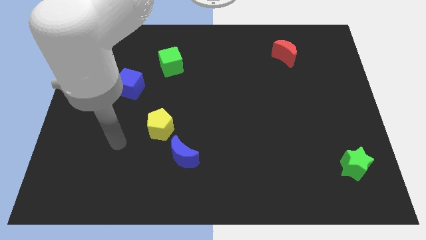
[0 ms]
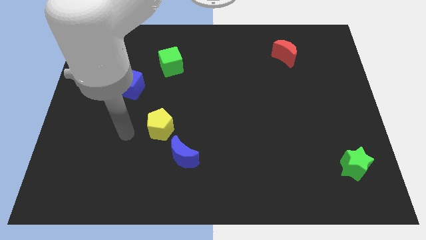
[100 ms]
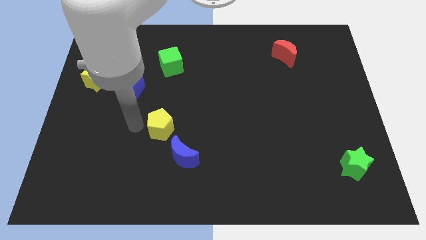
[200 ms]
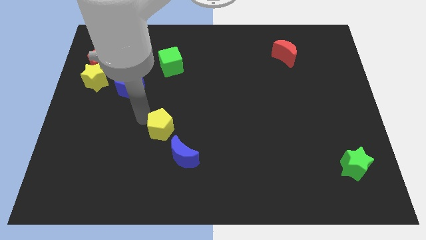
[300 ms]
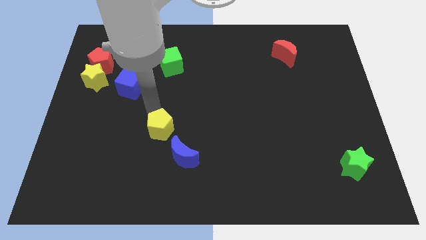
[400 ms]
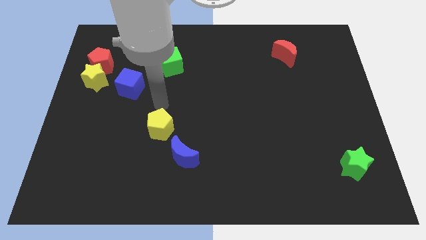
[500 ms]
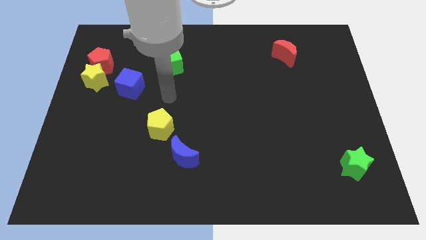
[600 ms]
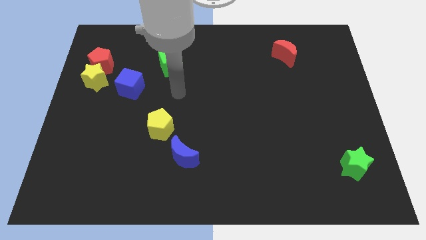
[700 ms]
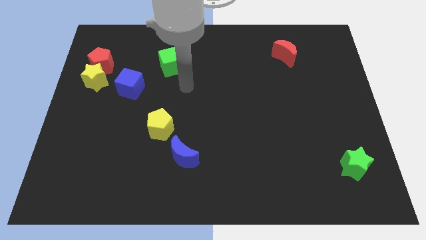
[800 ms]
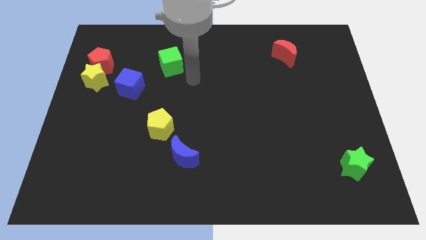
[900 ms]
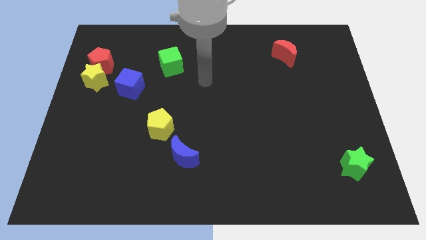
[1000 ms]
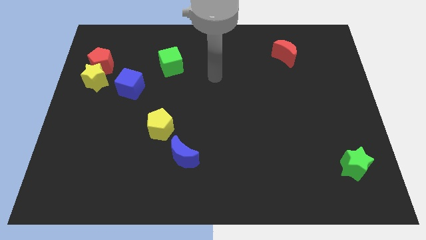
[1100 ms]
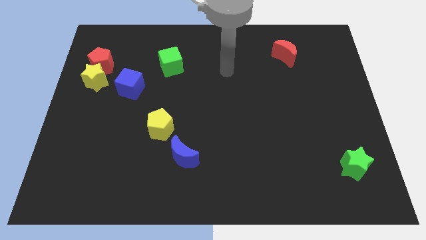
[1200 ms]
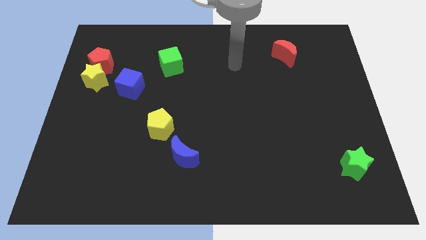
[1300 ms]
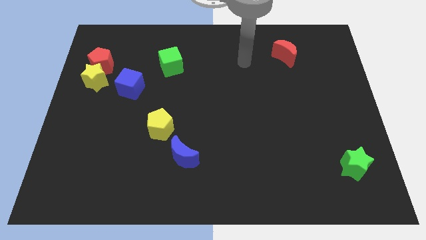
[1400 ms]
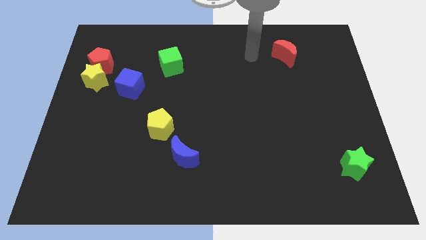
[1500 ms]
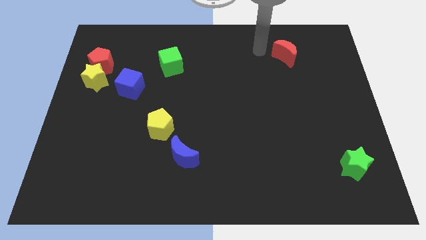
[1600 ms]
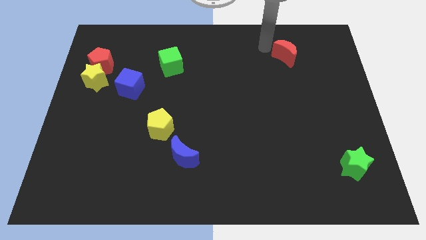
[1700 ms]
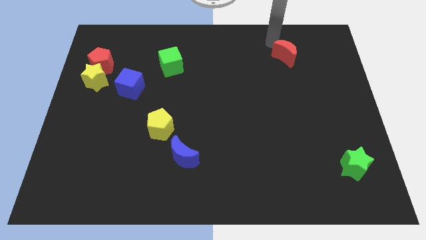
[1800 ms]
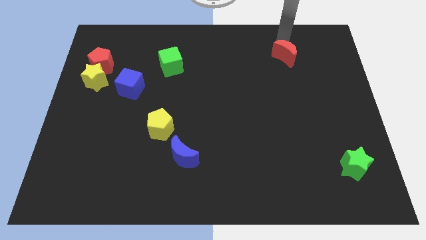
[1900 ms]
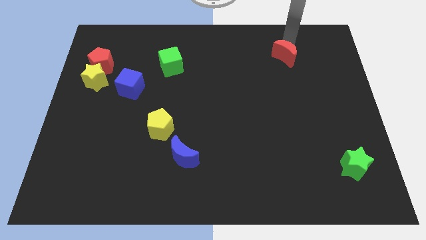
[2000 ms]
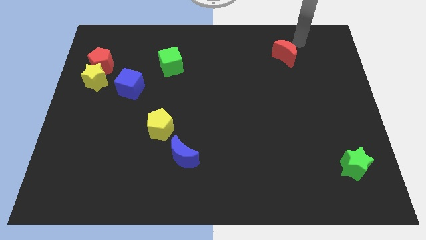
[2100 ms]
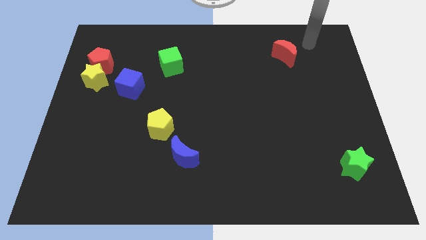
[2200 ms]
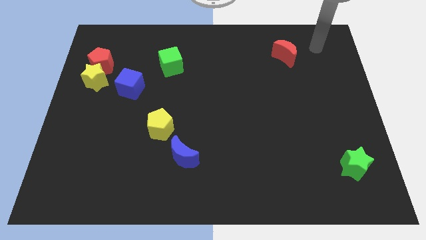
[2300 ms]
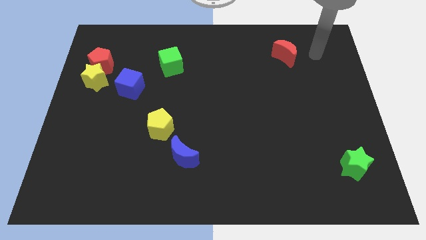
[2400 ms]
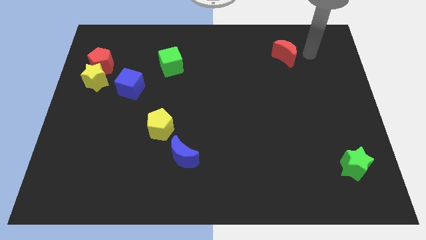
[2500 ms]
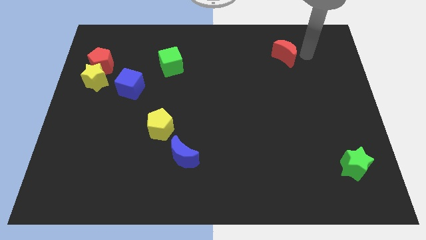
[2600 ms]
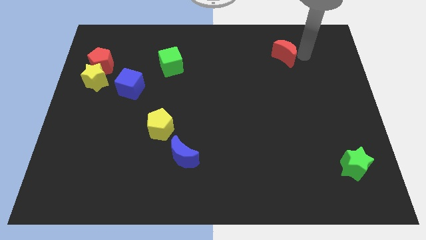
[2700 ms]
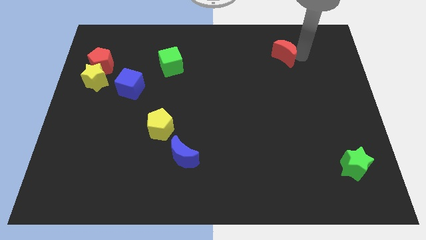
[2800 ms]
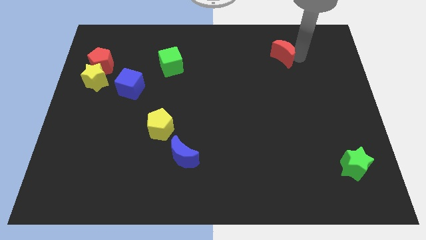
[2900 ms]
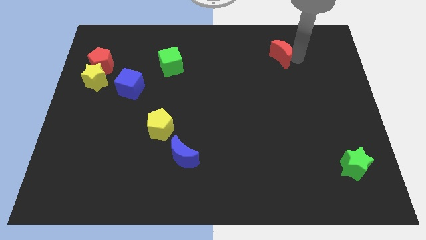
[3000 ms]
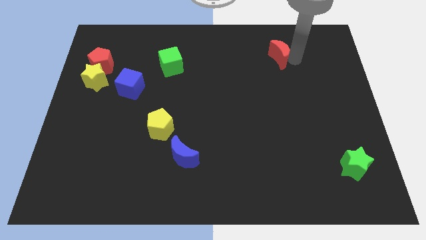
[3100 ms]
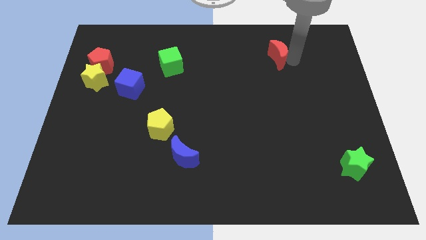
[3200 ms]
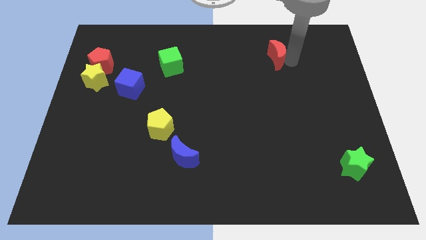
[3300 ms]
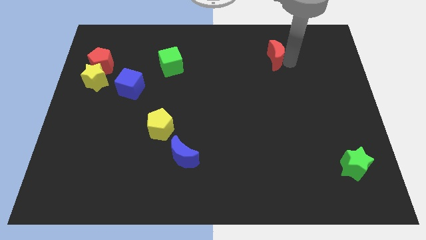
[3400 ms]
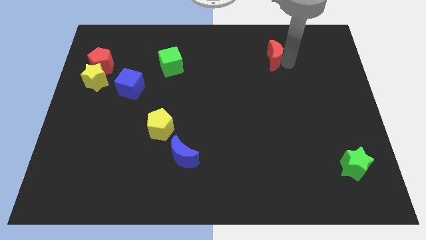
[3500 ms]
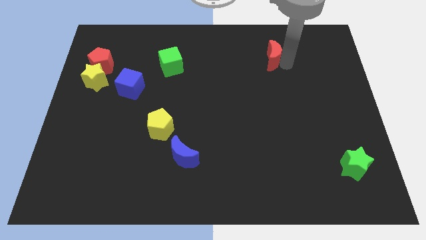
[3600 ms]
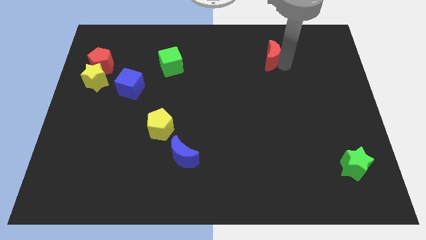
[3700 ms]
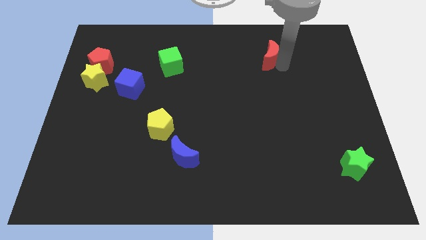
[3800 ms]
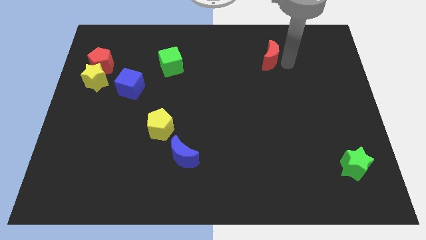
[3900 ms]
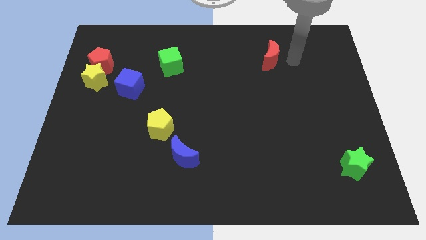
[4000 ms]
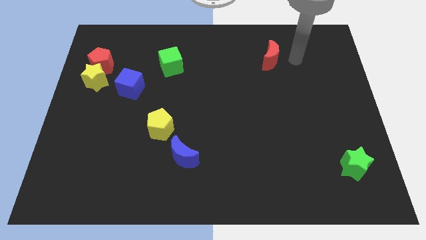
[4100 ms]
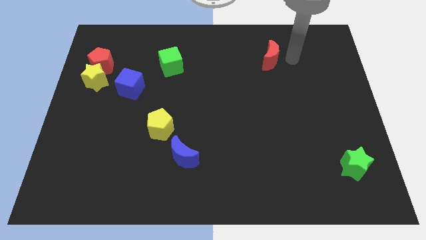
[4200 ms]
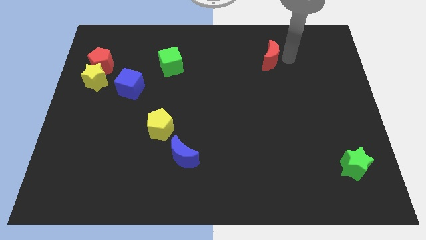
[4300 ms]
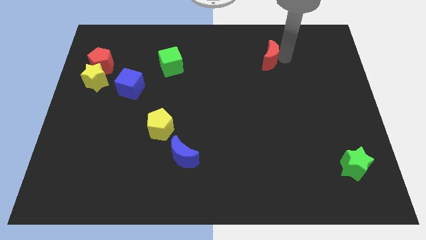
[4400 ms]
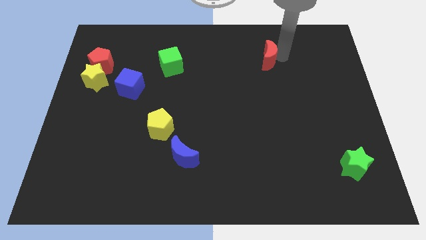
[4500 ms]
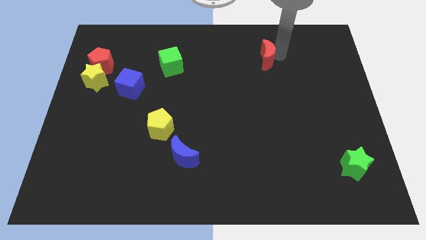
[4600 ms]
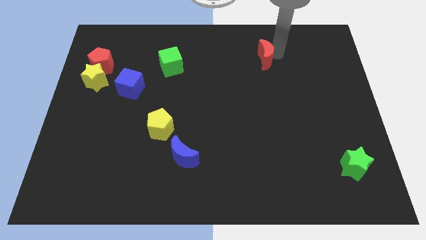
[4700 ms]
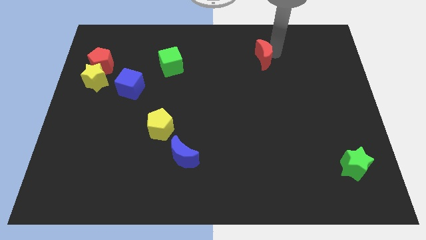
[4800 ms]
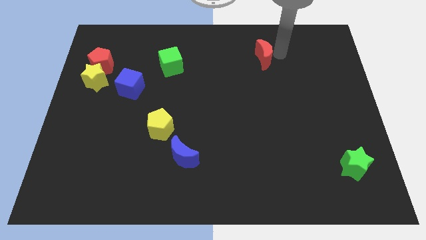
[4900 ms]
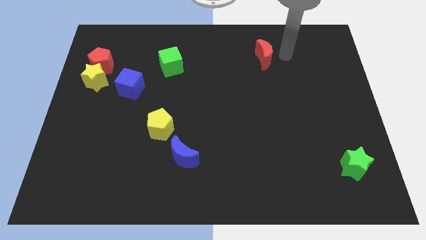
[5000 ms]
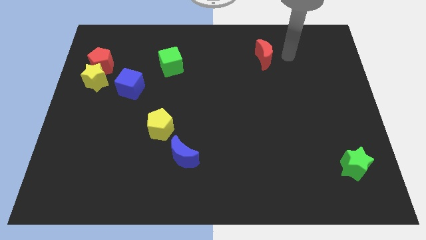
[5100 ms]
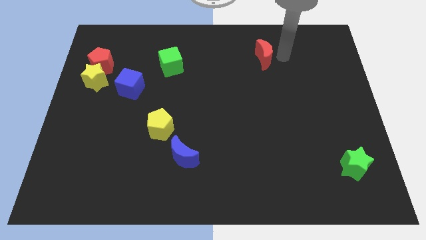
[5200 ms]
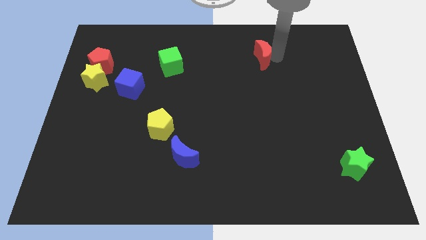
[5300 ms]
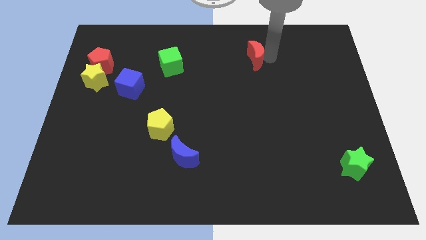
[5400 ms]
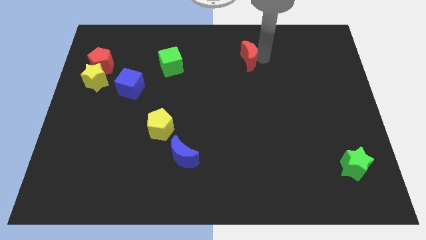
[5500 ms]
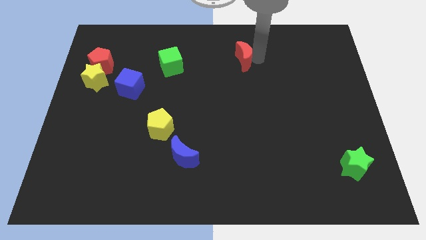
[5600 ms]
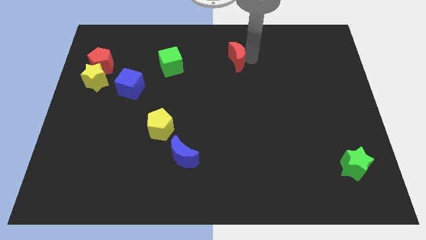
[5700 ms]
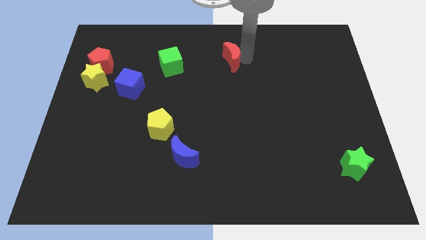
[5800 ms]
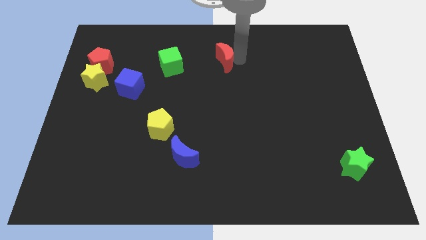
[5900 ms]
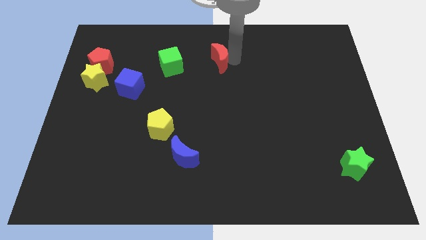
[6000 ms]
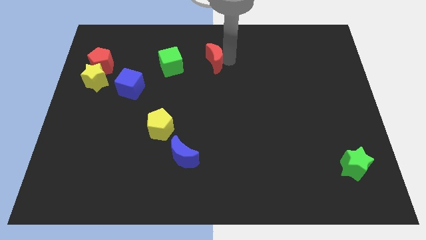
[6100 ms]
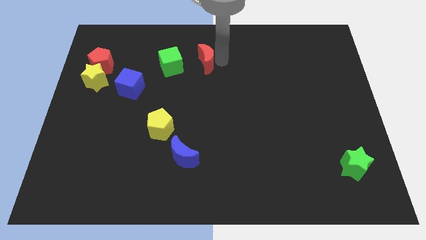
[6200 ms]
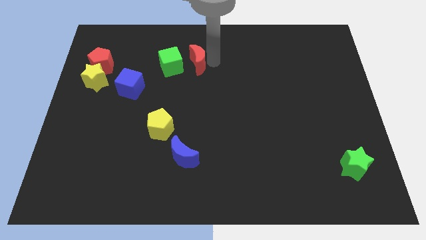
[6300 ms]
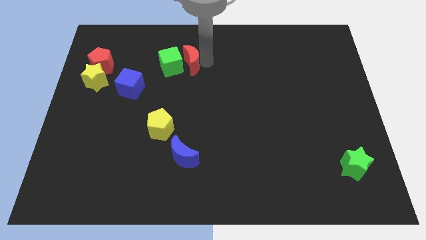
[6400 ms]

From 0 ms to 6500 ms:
put the red moon next to the green cube
